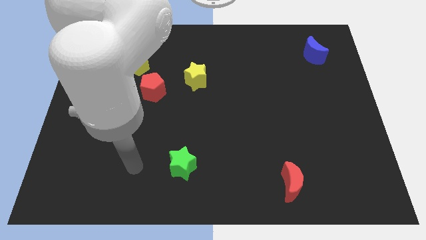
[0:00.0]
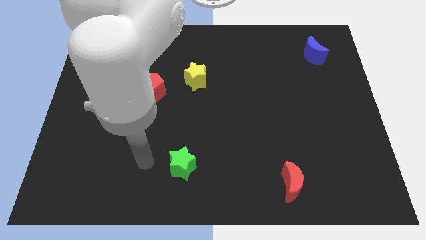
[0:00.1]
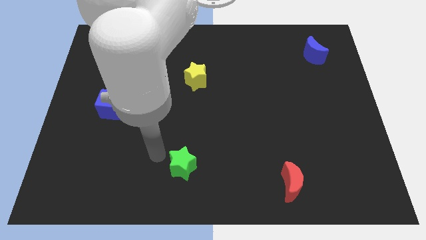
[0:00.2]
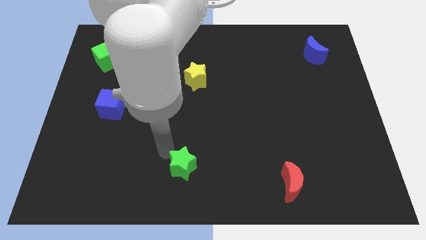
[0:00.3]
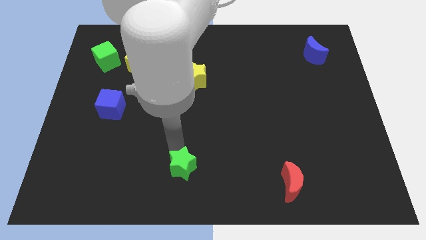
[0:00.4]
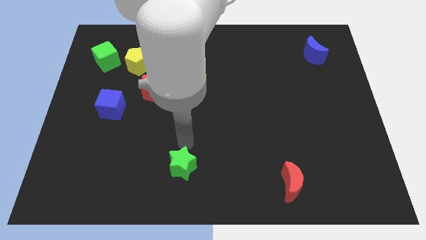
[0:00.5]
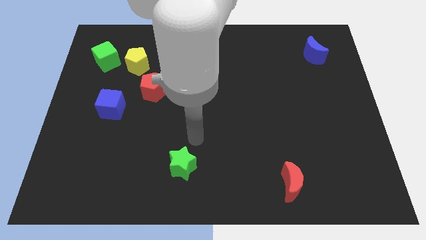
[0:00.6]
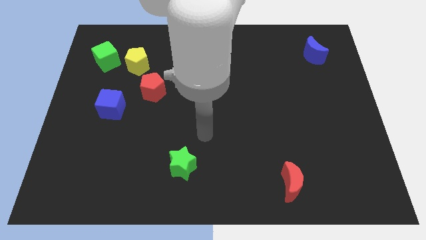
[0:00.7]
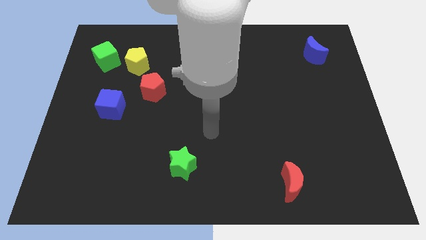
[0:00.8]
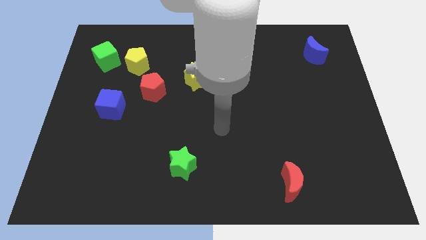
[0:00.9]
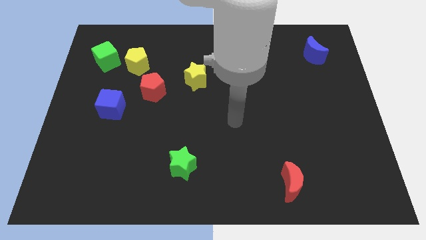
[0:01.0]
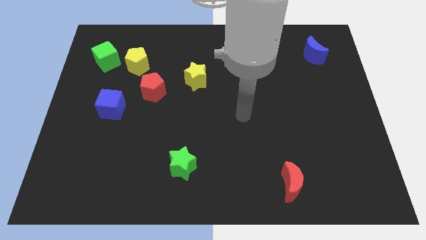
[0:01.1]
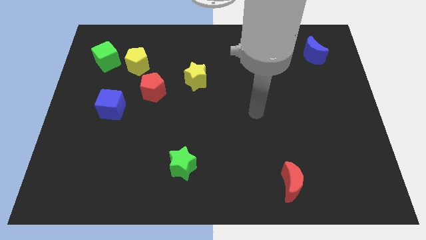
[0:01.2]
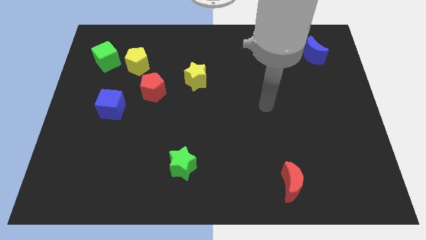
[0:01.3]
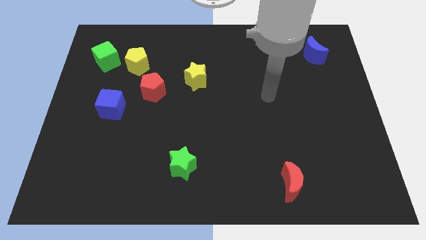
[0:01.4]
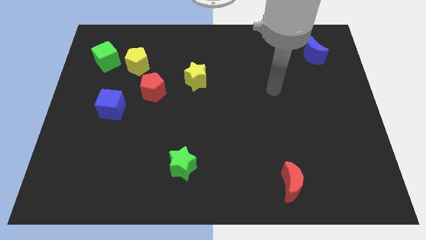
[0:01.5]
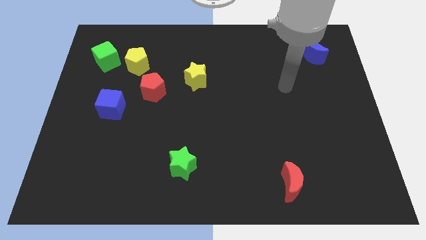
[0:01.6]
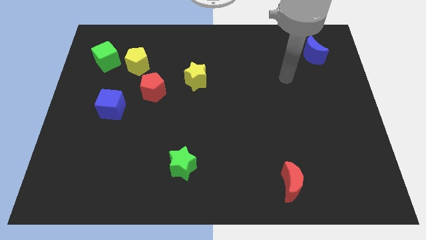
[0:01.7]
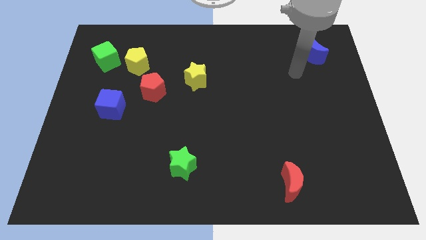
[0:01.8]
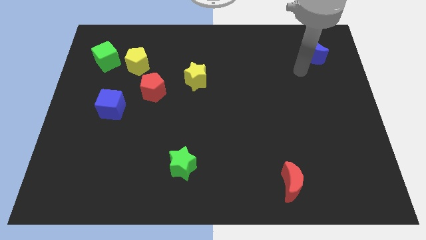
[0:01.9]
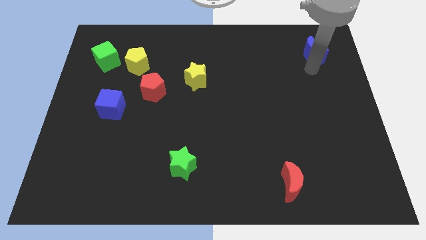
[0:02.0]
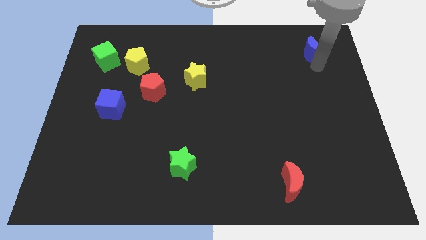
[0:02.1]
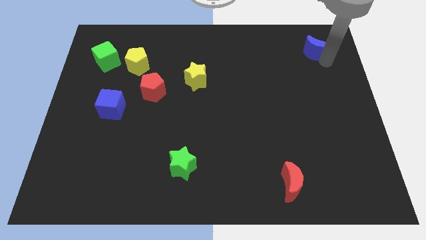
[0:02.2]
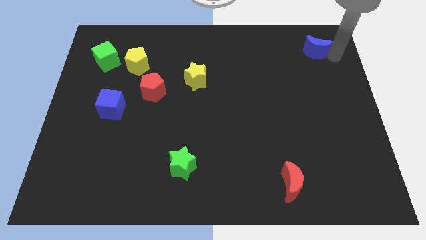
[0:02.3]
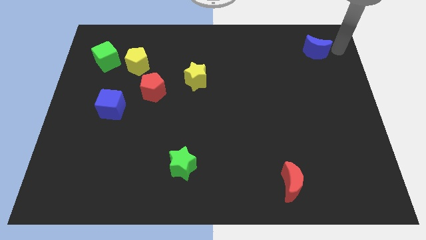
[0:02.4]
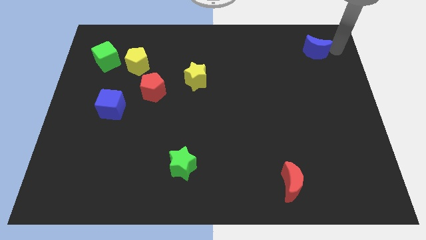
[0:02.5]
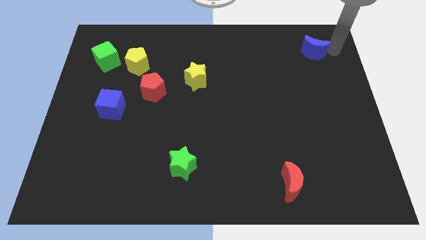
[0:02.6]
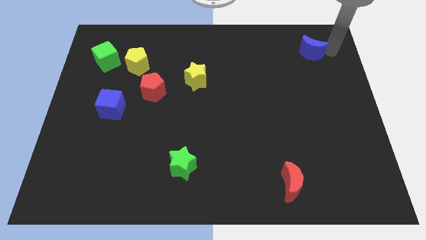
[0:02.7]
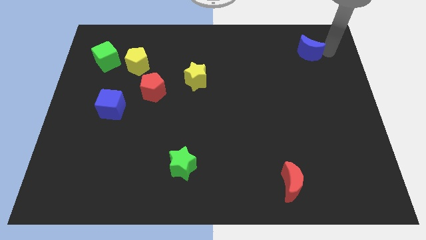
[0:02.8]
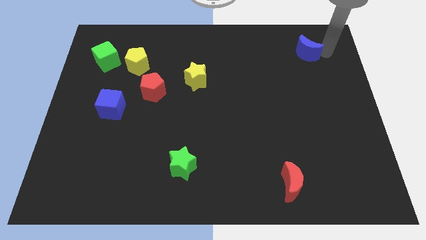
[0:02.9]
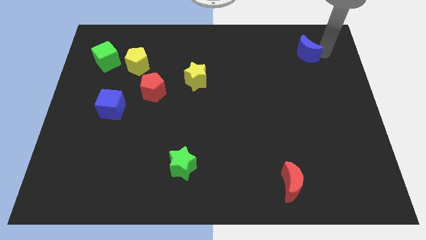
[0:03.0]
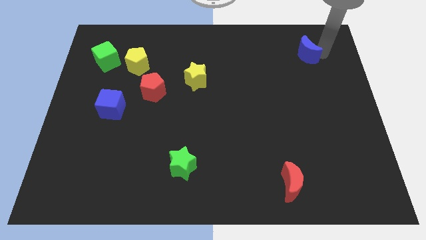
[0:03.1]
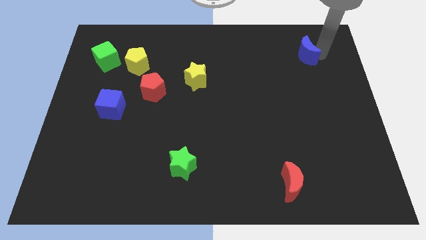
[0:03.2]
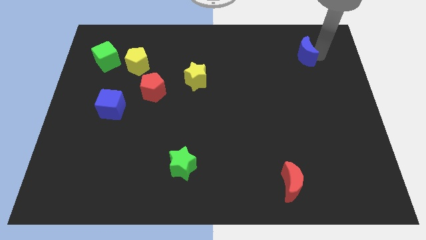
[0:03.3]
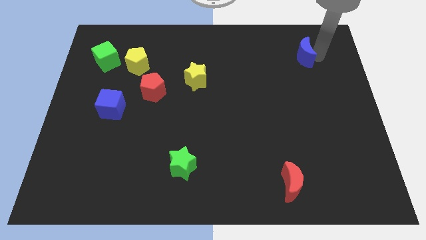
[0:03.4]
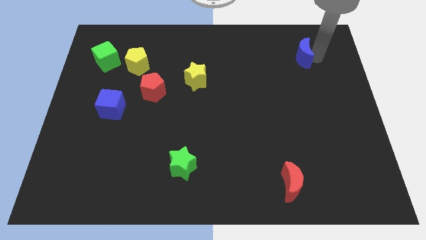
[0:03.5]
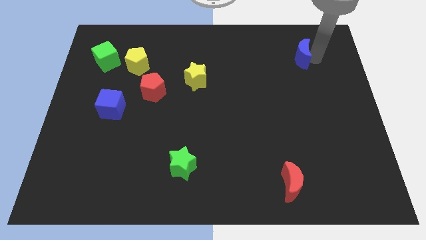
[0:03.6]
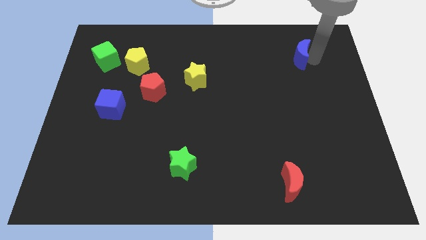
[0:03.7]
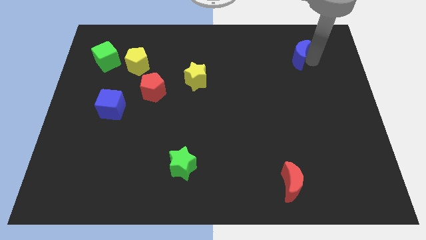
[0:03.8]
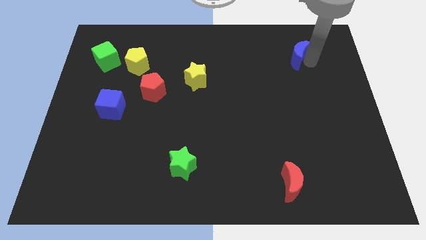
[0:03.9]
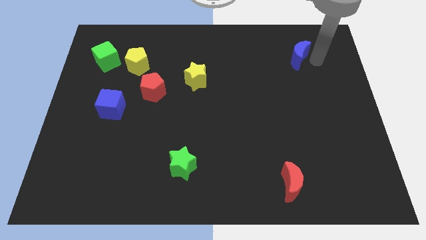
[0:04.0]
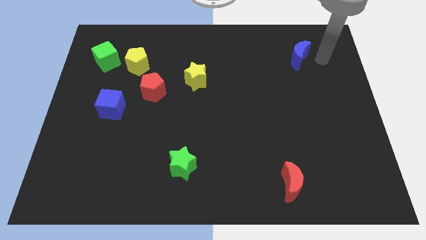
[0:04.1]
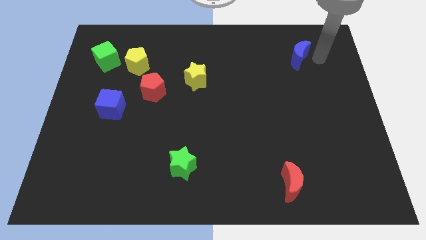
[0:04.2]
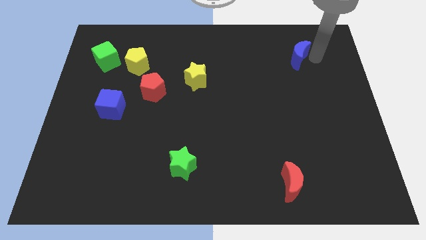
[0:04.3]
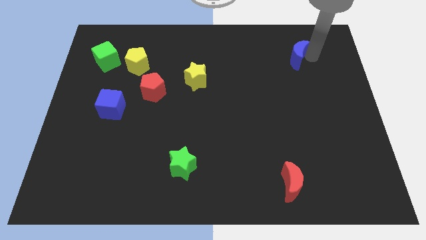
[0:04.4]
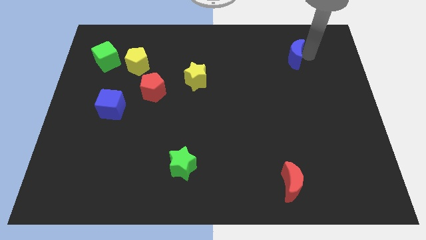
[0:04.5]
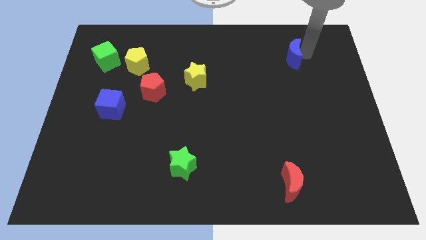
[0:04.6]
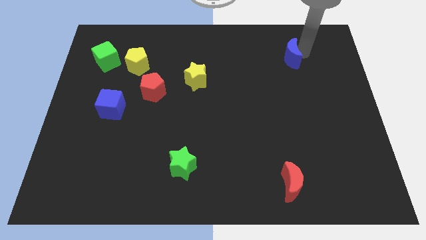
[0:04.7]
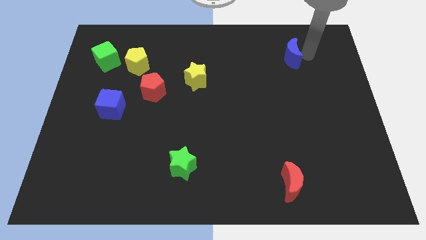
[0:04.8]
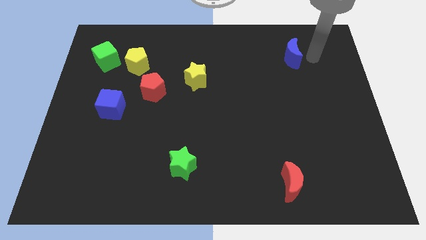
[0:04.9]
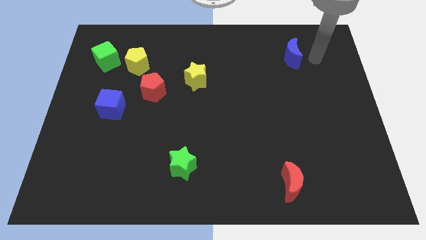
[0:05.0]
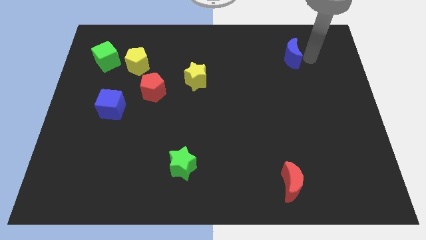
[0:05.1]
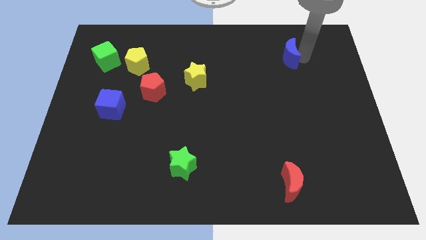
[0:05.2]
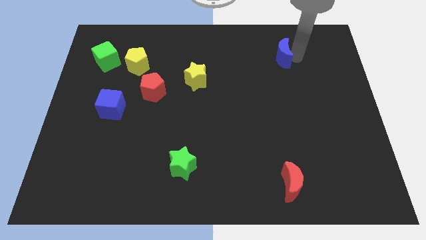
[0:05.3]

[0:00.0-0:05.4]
slide the blue moon to the left somewhat

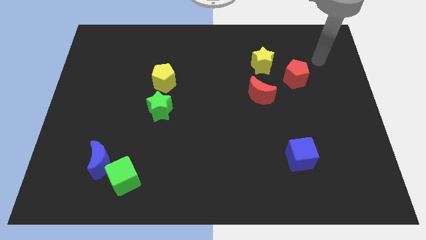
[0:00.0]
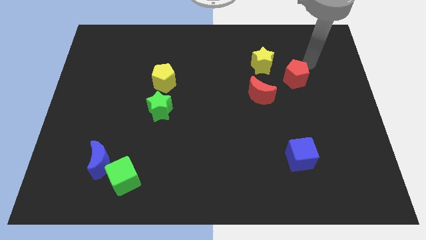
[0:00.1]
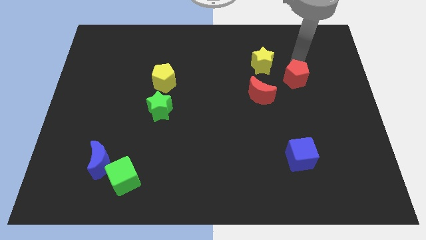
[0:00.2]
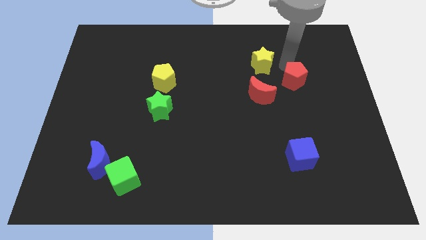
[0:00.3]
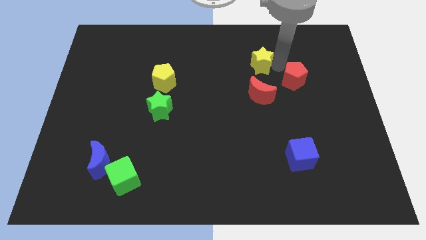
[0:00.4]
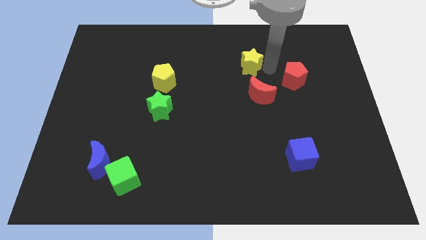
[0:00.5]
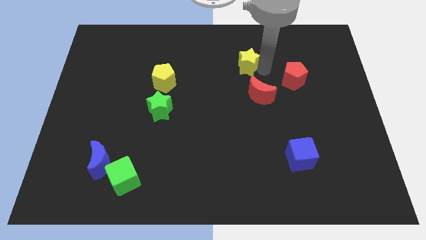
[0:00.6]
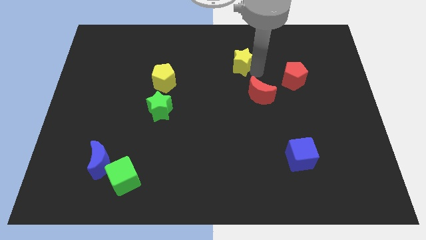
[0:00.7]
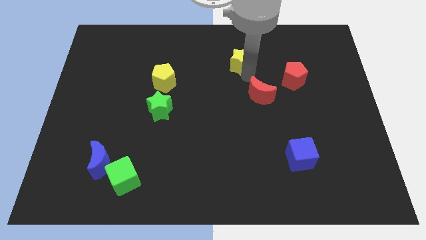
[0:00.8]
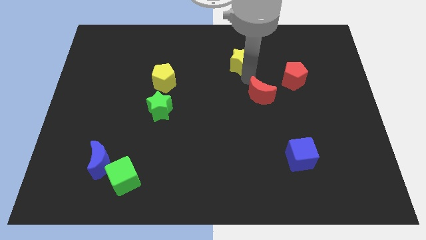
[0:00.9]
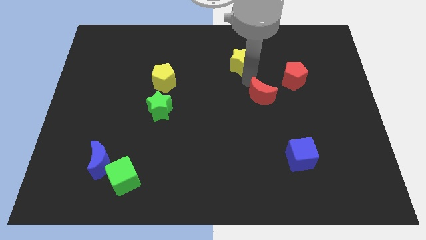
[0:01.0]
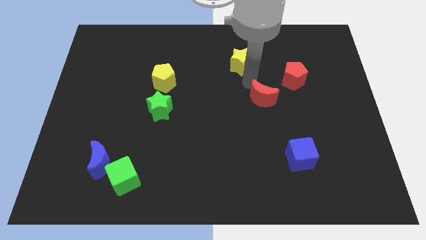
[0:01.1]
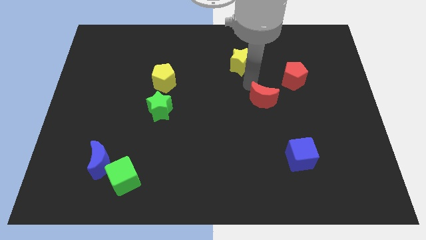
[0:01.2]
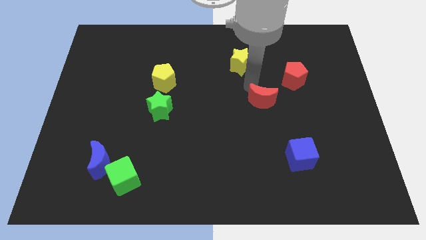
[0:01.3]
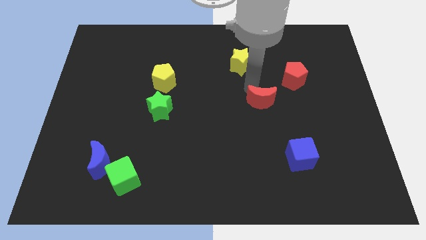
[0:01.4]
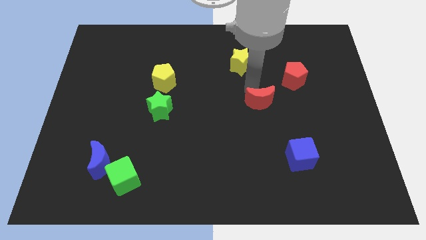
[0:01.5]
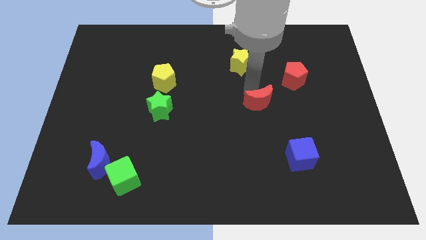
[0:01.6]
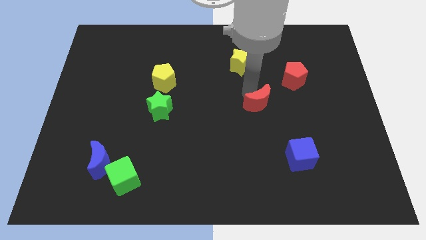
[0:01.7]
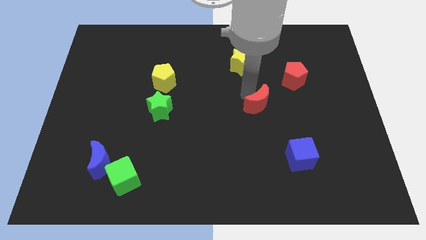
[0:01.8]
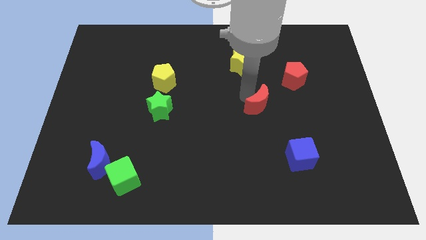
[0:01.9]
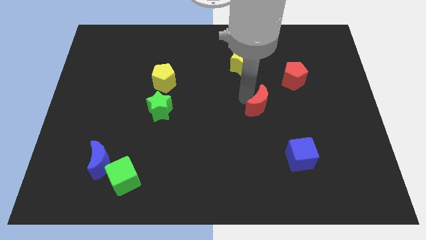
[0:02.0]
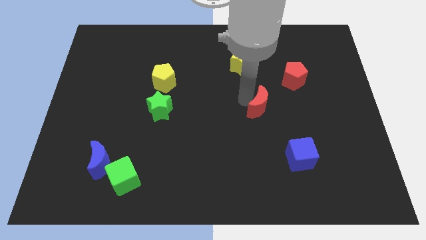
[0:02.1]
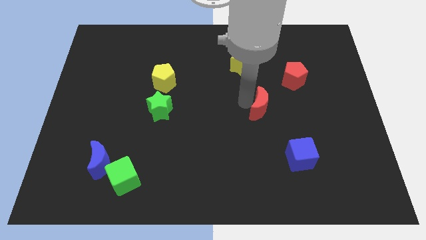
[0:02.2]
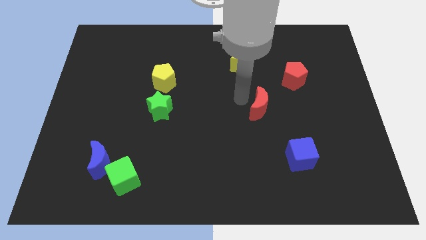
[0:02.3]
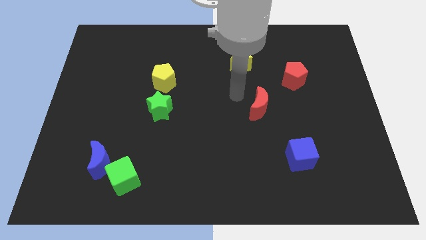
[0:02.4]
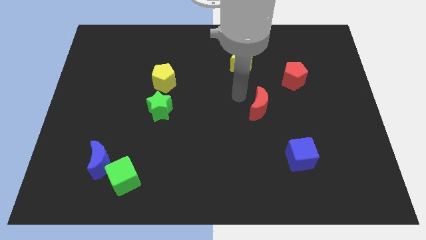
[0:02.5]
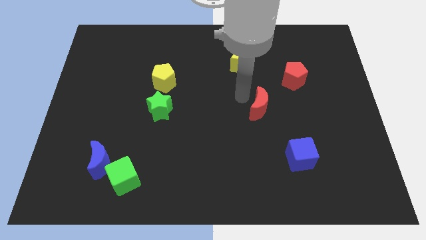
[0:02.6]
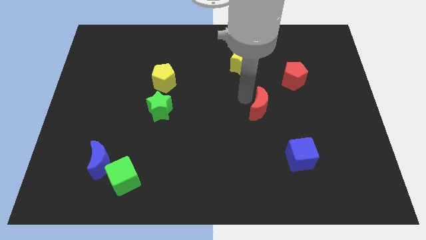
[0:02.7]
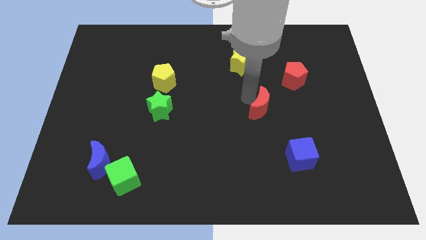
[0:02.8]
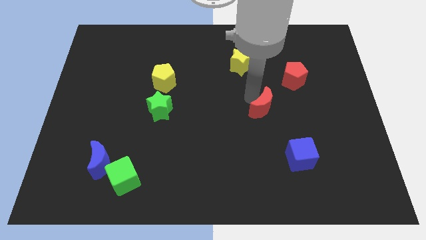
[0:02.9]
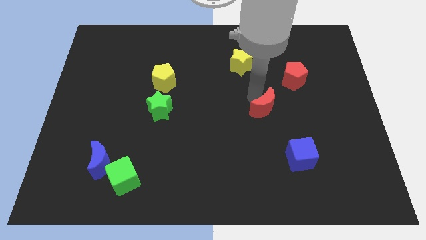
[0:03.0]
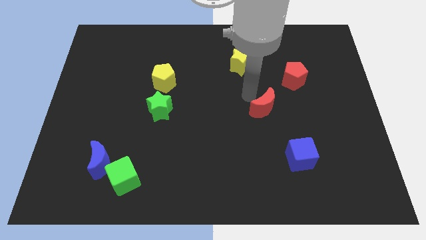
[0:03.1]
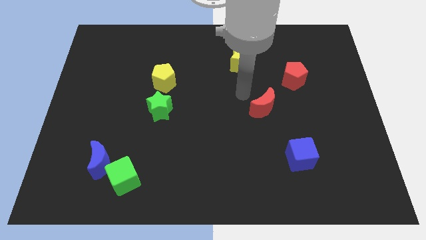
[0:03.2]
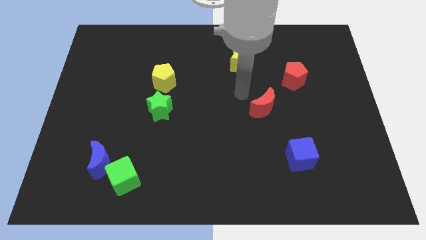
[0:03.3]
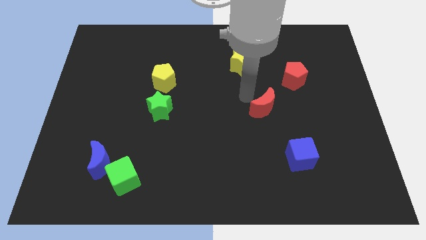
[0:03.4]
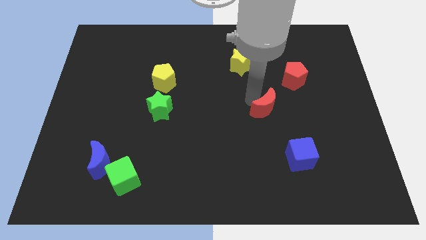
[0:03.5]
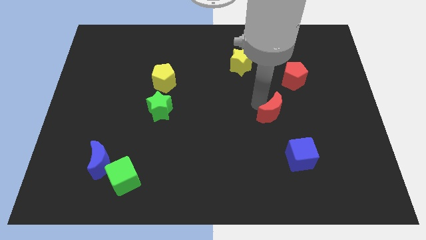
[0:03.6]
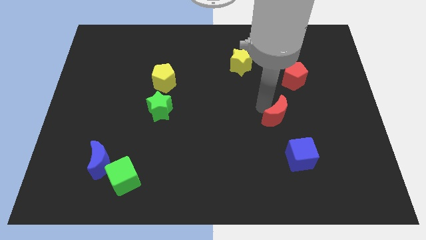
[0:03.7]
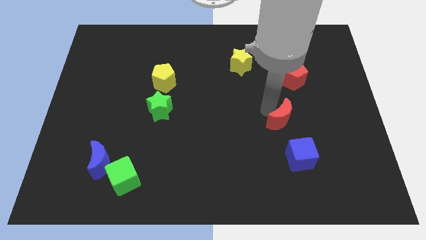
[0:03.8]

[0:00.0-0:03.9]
slide the red moon slightly diagonally downwards and right
